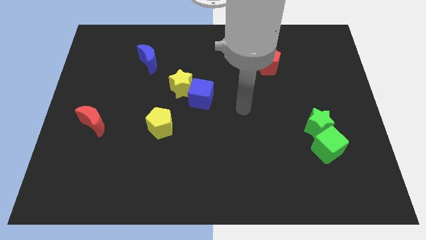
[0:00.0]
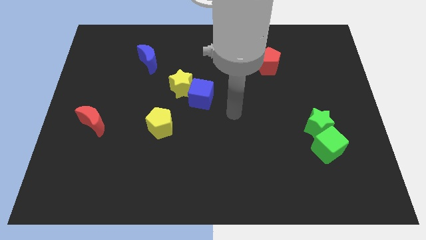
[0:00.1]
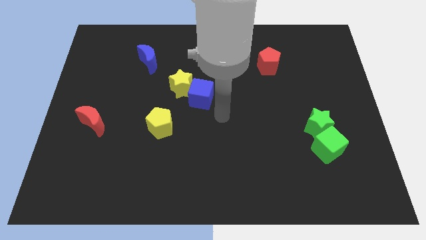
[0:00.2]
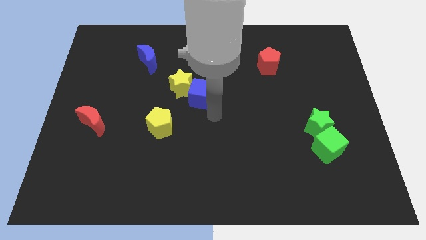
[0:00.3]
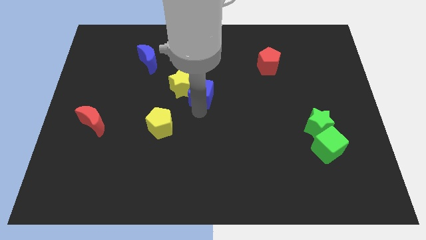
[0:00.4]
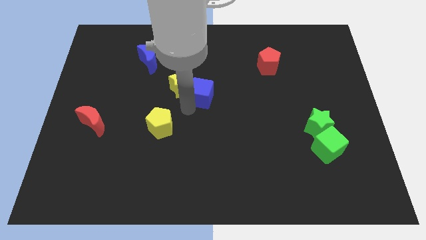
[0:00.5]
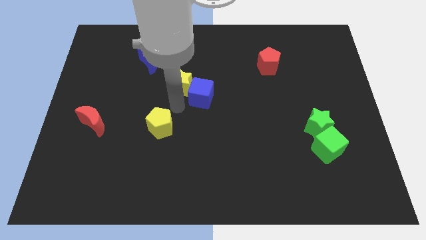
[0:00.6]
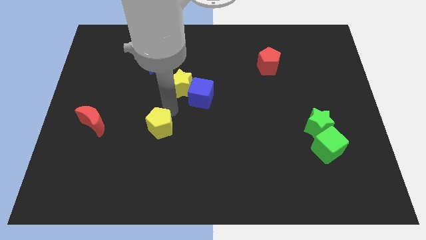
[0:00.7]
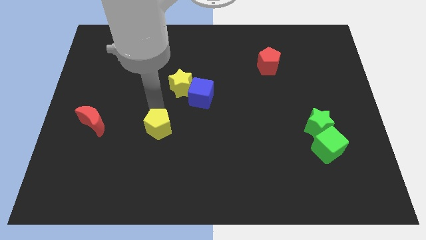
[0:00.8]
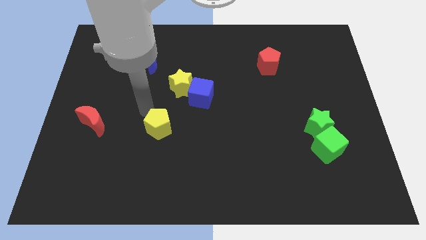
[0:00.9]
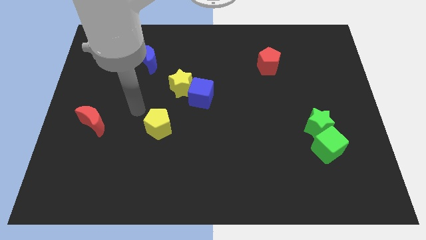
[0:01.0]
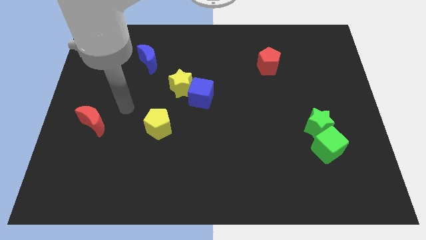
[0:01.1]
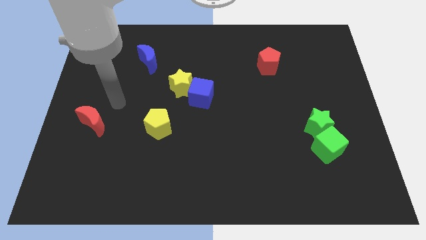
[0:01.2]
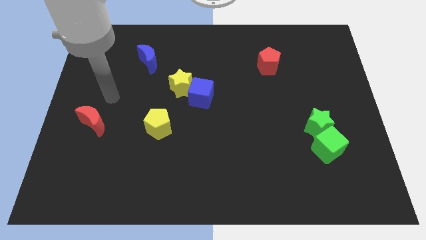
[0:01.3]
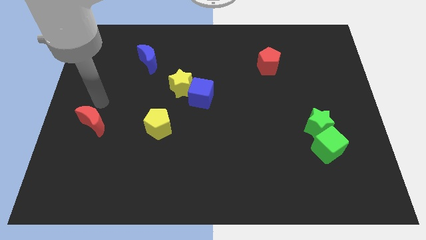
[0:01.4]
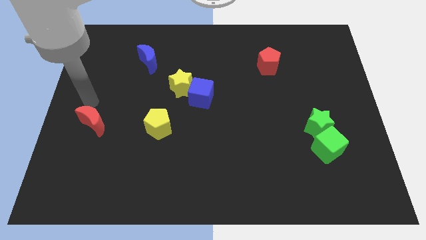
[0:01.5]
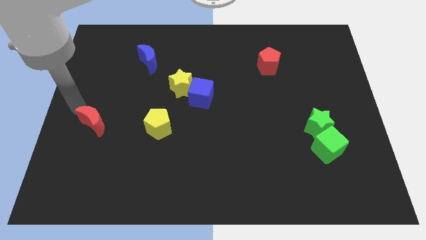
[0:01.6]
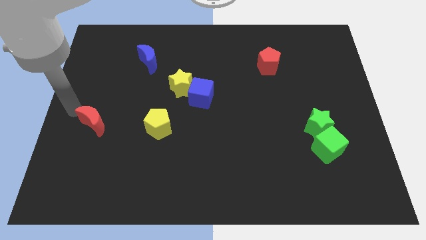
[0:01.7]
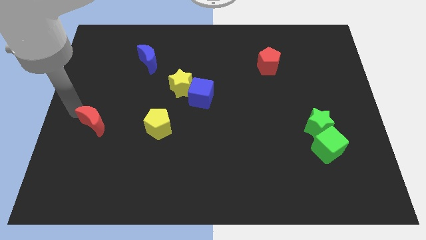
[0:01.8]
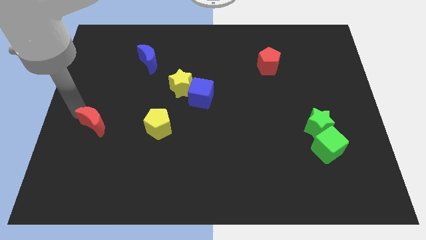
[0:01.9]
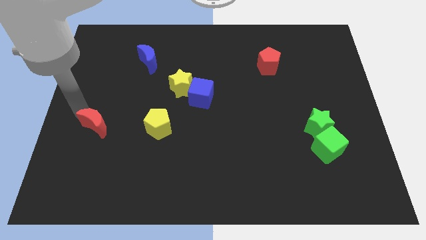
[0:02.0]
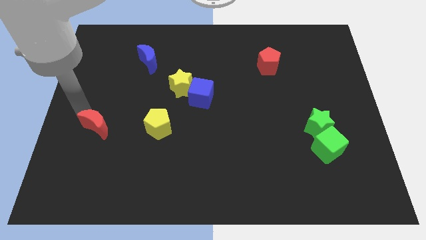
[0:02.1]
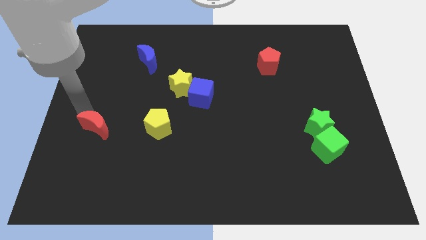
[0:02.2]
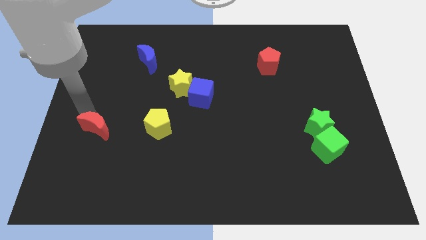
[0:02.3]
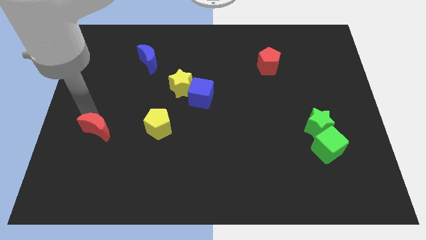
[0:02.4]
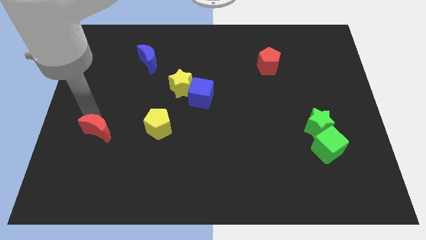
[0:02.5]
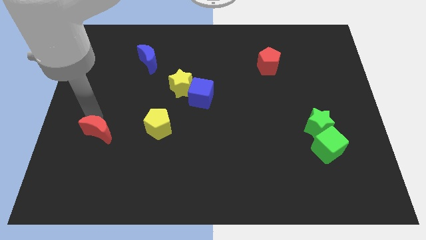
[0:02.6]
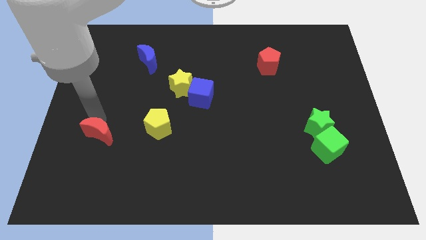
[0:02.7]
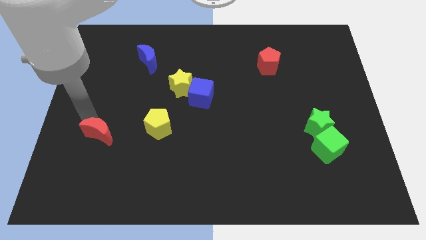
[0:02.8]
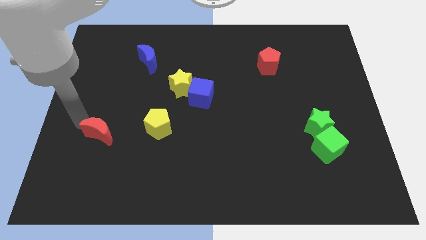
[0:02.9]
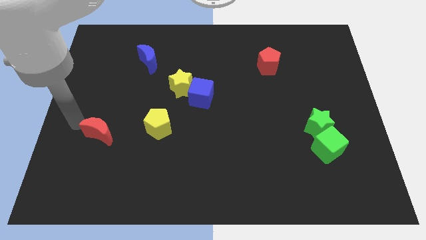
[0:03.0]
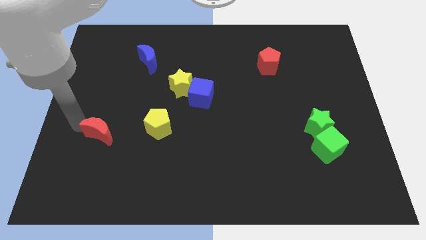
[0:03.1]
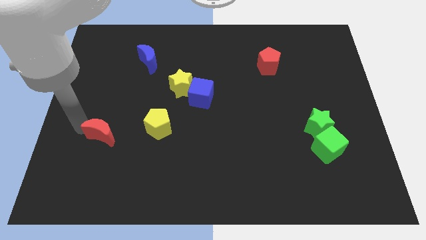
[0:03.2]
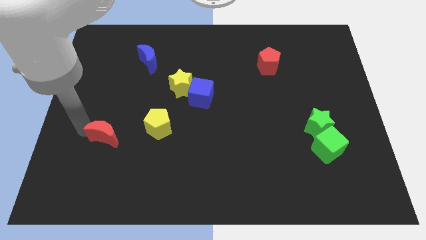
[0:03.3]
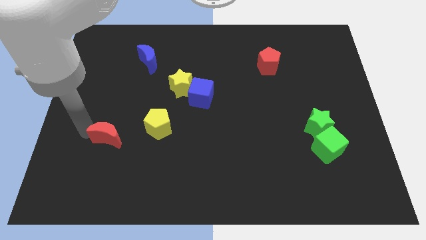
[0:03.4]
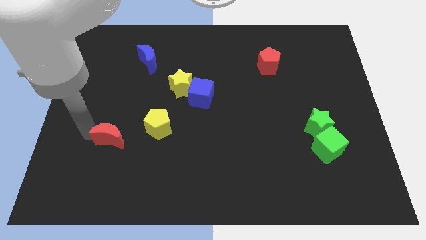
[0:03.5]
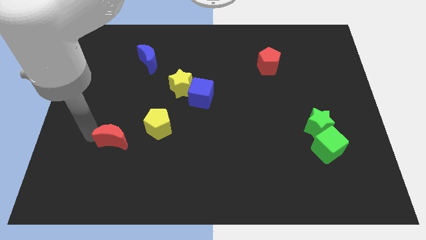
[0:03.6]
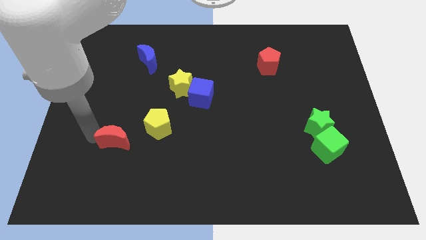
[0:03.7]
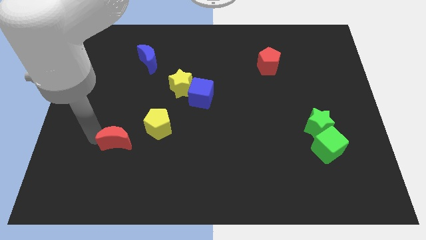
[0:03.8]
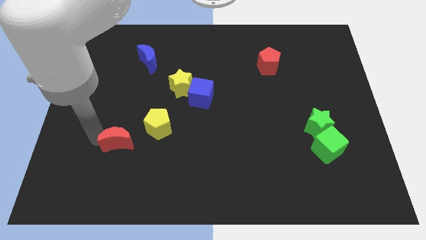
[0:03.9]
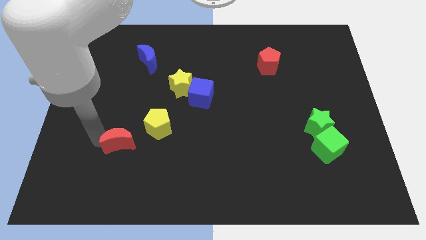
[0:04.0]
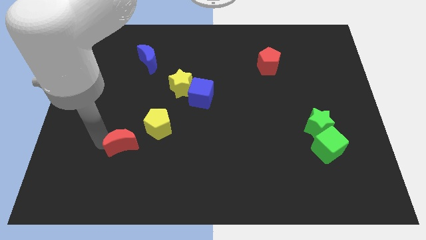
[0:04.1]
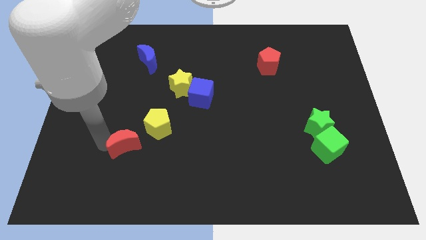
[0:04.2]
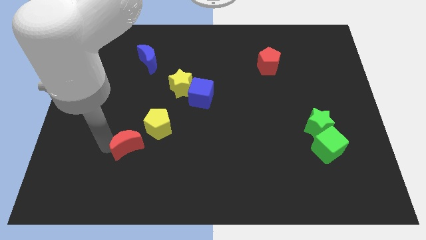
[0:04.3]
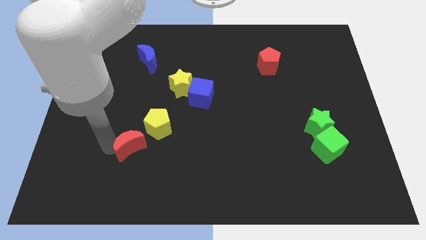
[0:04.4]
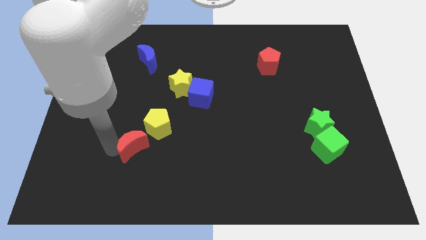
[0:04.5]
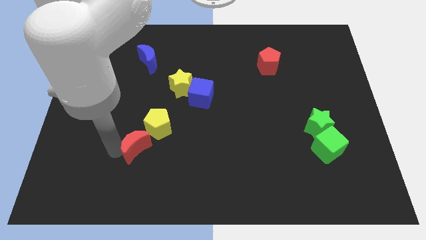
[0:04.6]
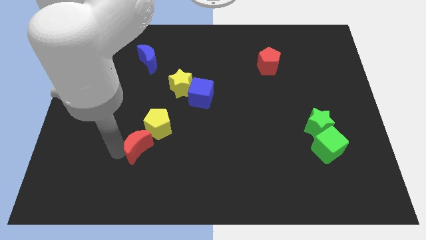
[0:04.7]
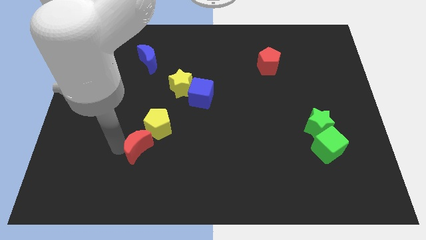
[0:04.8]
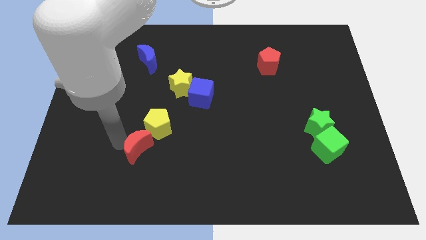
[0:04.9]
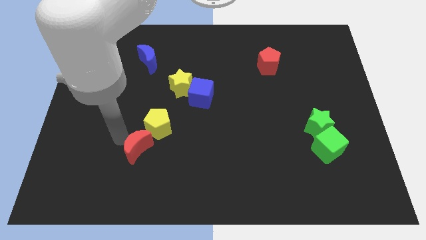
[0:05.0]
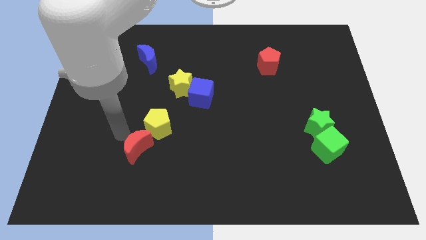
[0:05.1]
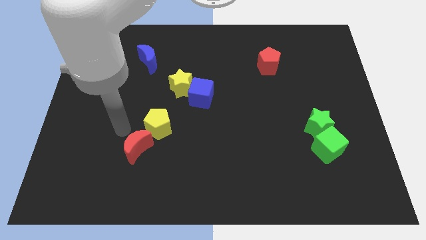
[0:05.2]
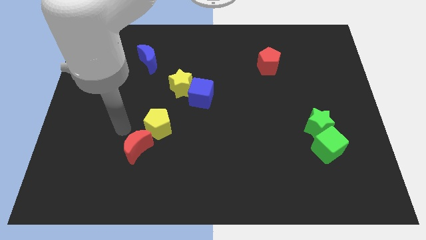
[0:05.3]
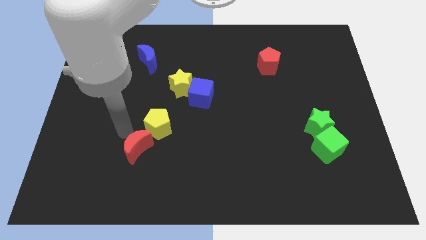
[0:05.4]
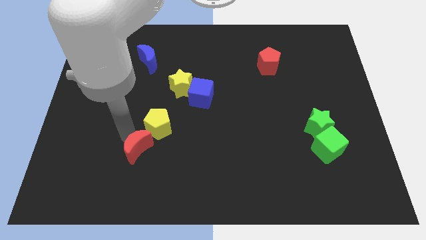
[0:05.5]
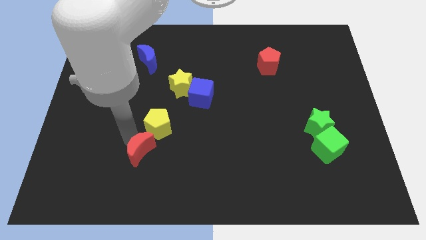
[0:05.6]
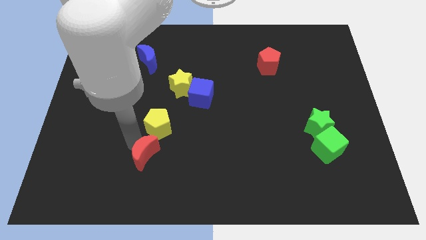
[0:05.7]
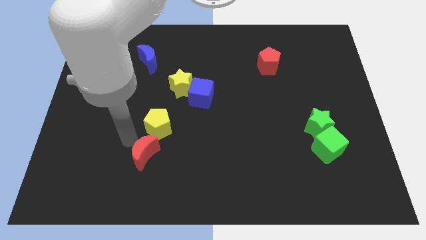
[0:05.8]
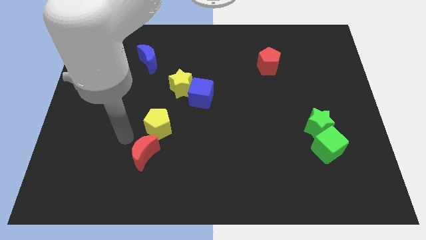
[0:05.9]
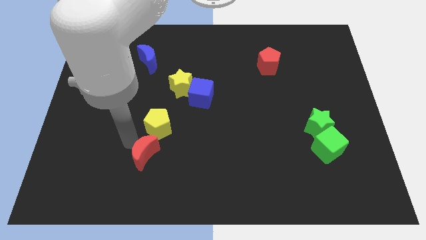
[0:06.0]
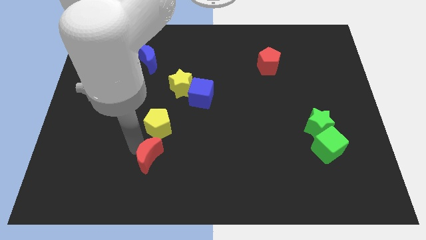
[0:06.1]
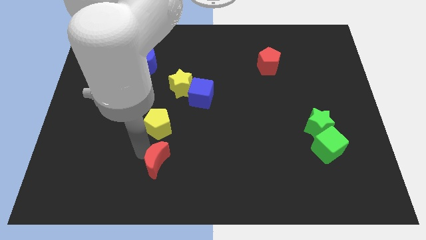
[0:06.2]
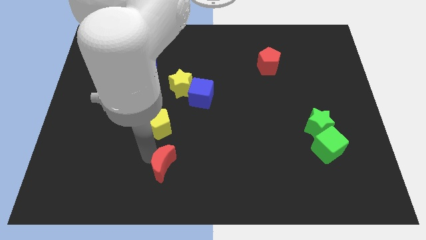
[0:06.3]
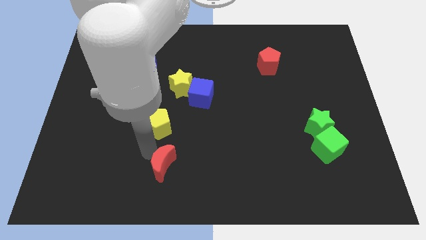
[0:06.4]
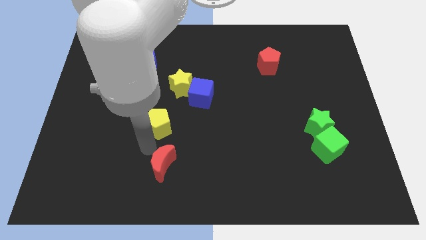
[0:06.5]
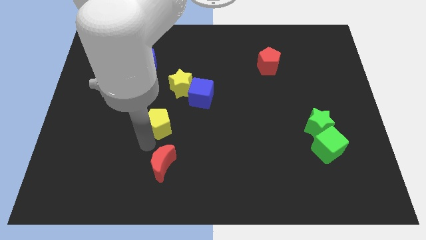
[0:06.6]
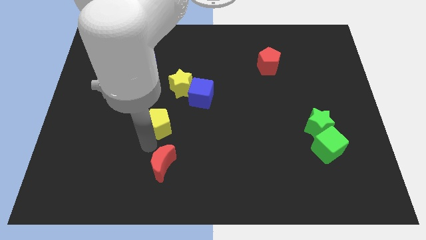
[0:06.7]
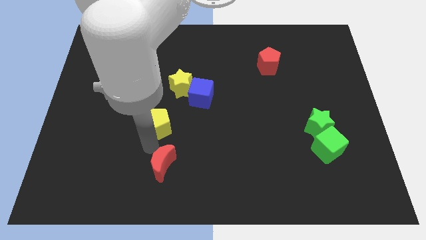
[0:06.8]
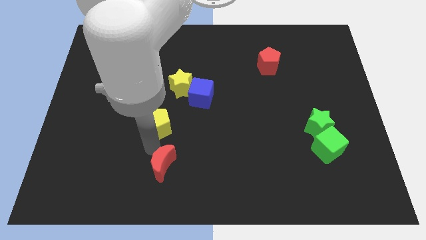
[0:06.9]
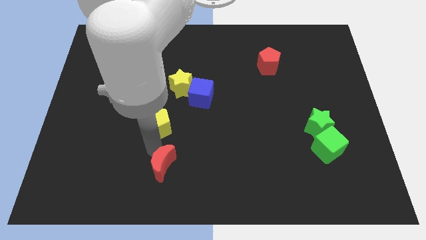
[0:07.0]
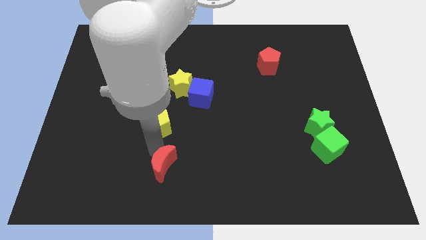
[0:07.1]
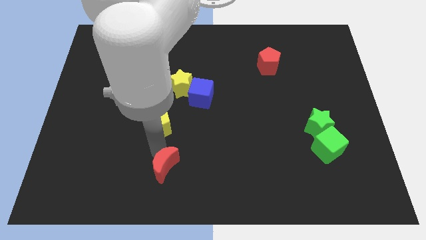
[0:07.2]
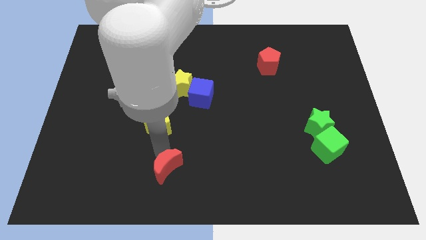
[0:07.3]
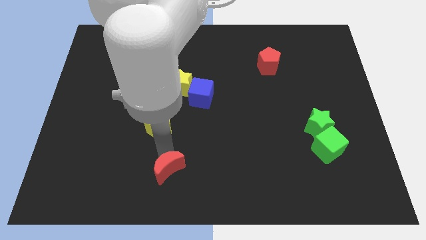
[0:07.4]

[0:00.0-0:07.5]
move the red moon to the bottom
